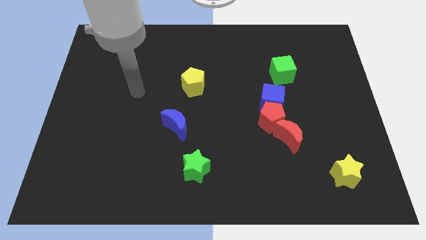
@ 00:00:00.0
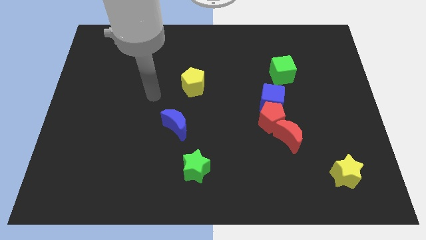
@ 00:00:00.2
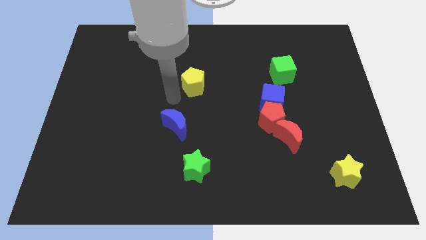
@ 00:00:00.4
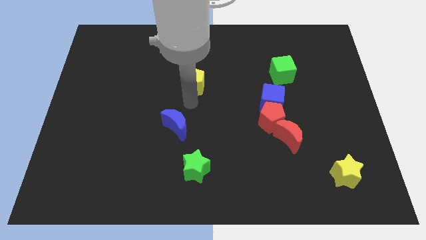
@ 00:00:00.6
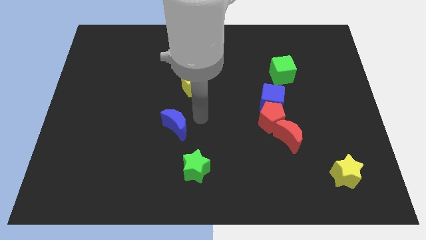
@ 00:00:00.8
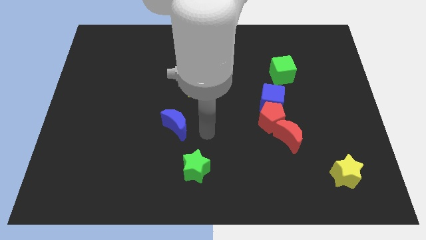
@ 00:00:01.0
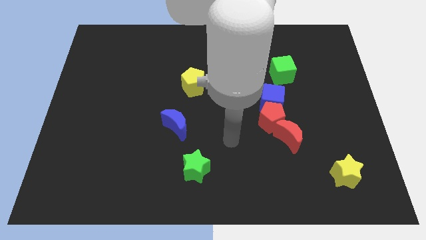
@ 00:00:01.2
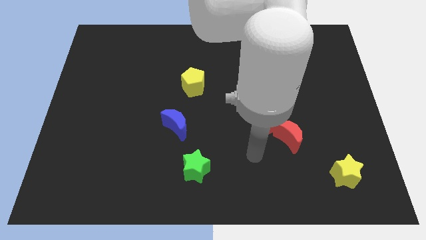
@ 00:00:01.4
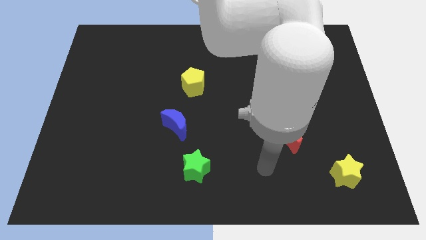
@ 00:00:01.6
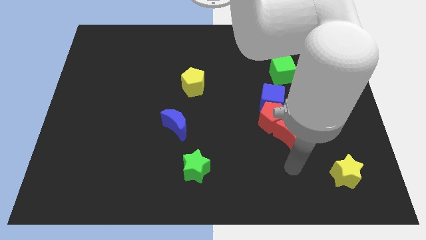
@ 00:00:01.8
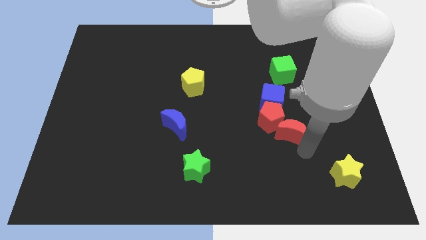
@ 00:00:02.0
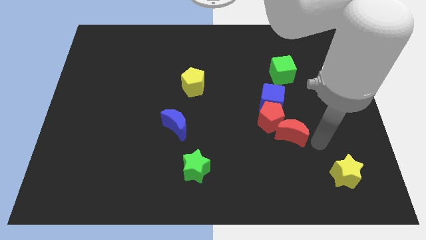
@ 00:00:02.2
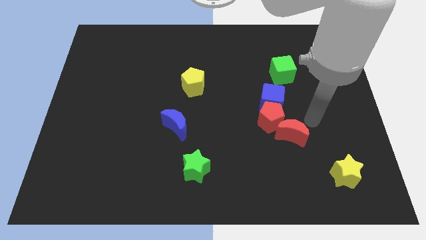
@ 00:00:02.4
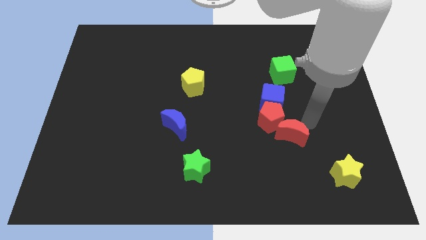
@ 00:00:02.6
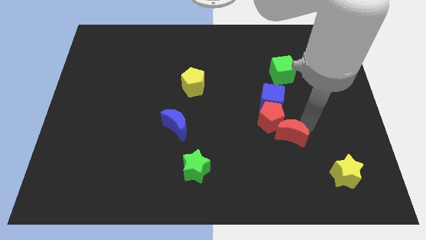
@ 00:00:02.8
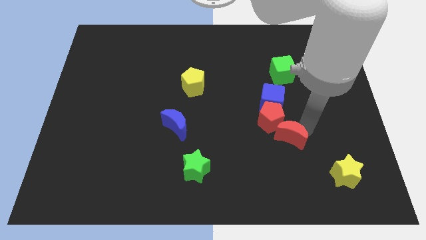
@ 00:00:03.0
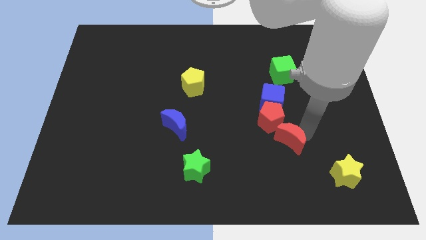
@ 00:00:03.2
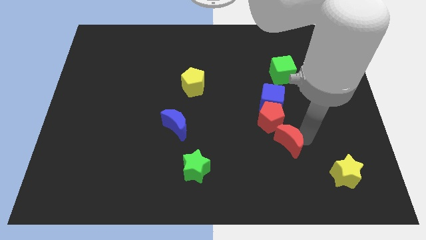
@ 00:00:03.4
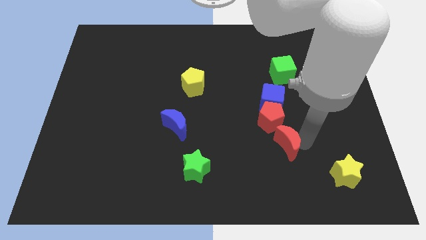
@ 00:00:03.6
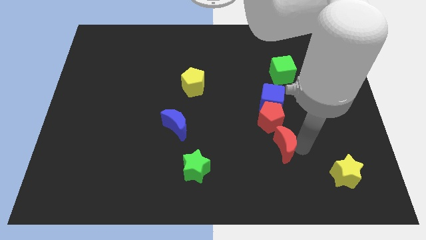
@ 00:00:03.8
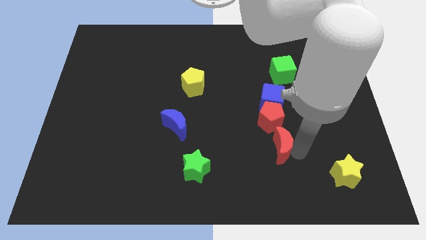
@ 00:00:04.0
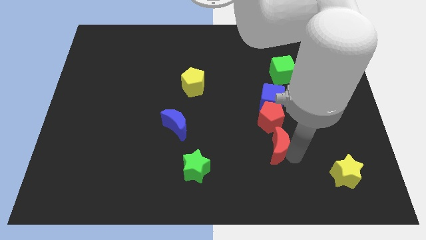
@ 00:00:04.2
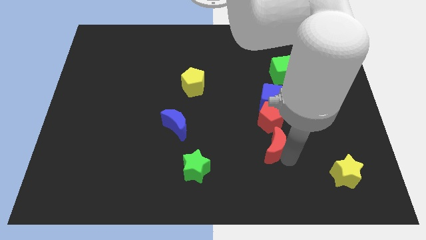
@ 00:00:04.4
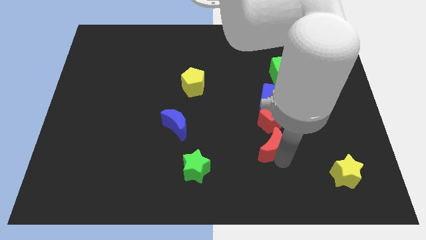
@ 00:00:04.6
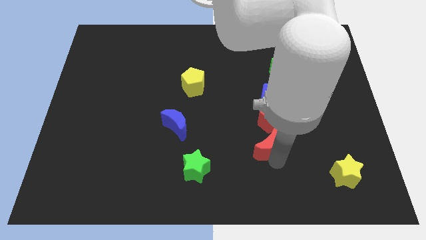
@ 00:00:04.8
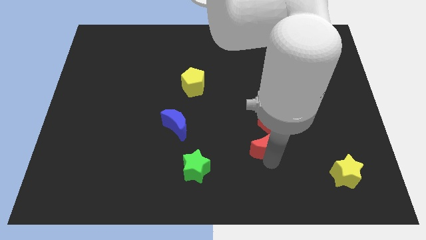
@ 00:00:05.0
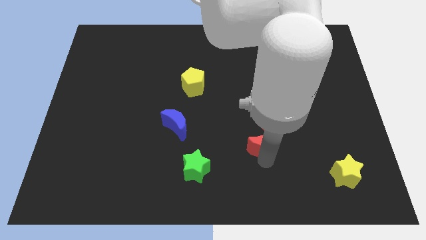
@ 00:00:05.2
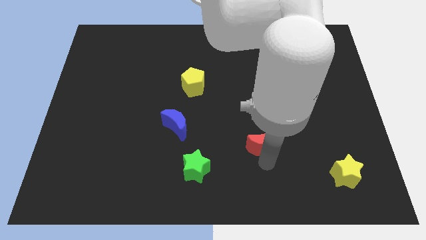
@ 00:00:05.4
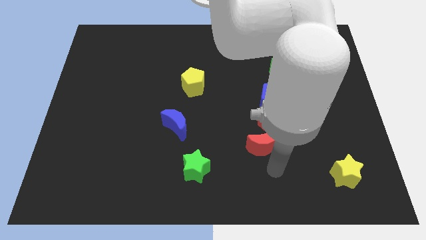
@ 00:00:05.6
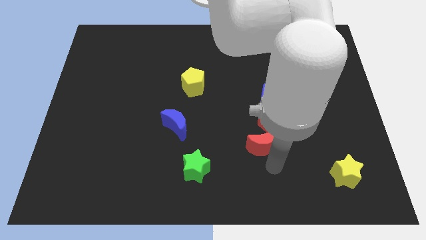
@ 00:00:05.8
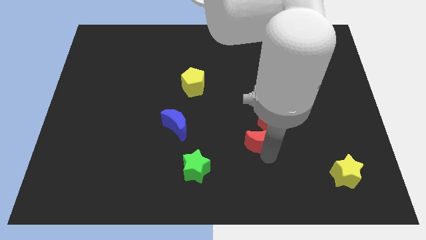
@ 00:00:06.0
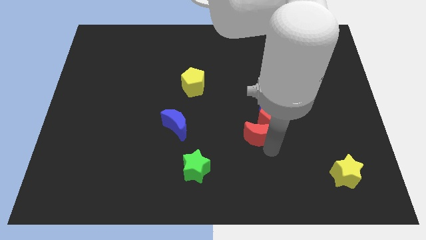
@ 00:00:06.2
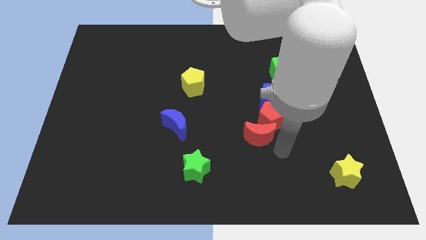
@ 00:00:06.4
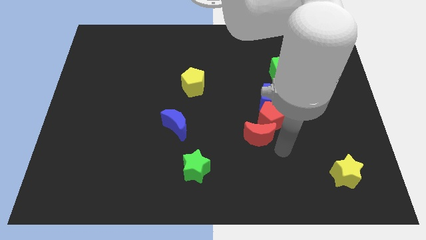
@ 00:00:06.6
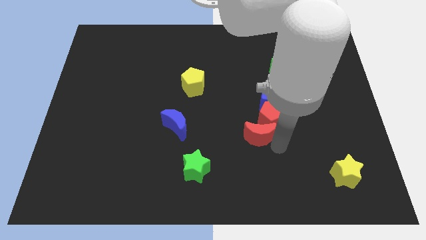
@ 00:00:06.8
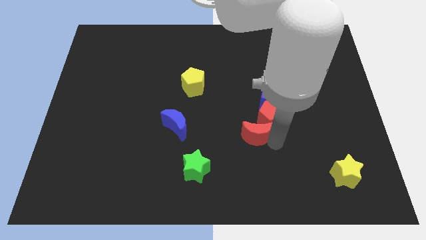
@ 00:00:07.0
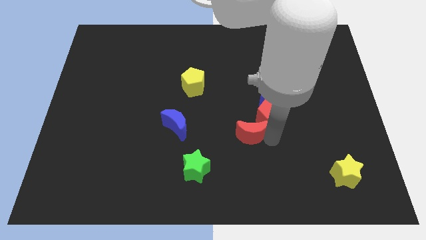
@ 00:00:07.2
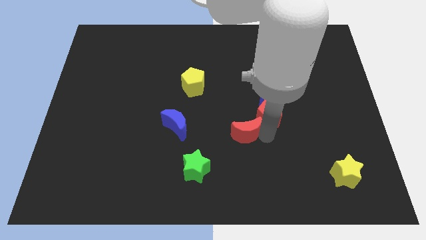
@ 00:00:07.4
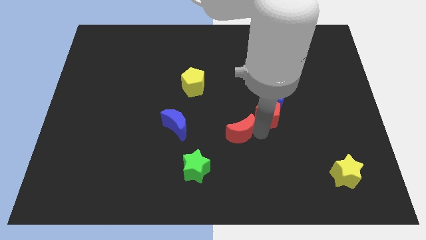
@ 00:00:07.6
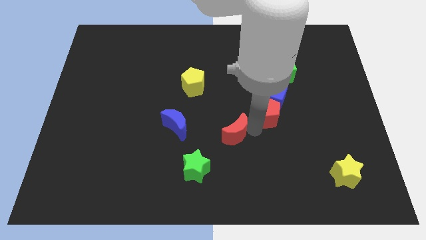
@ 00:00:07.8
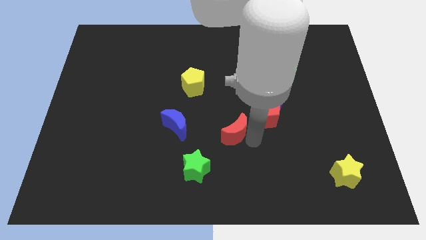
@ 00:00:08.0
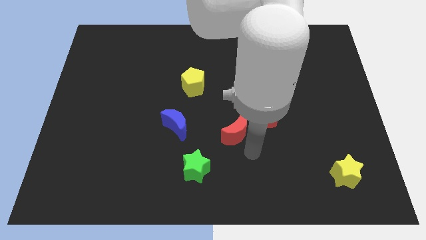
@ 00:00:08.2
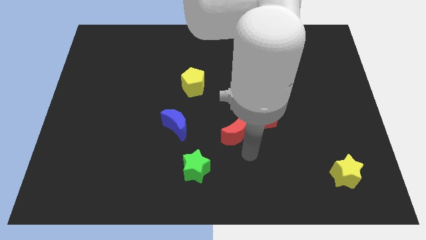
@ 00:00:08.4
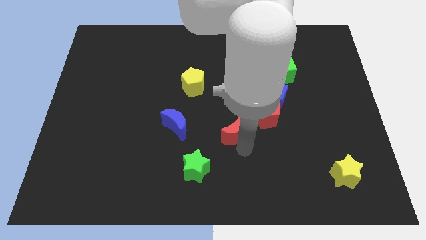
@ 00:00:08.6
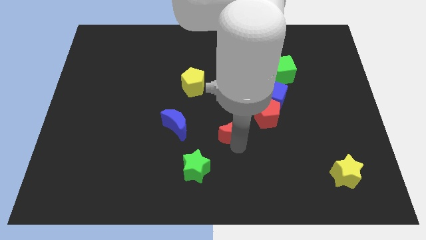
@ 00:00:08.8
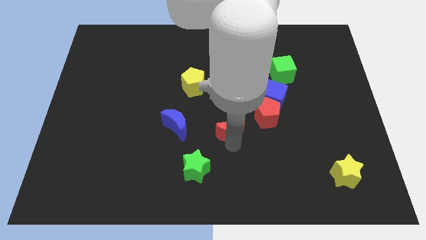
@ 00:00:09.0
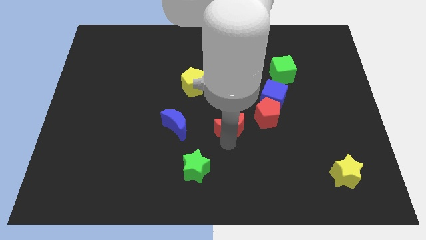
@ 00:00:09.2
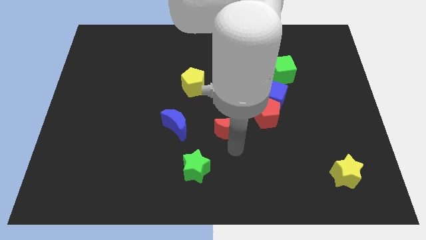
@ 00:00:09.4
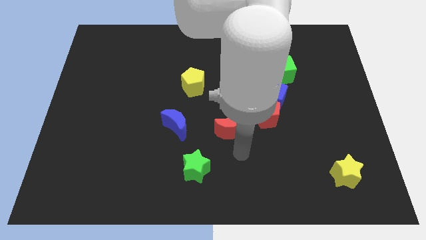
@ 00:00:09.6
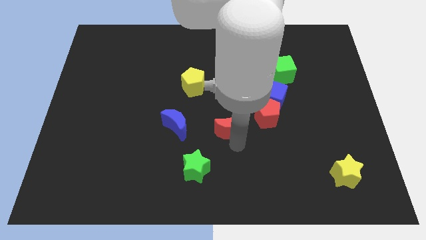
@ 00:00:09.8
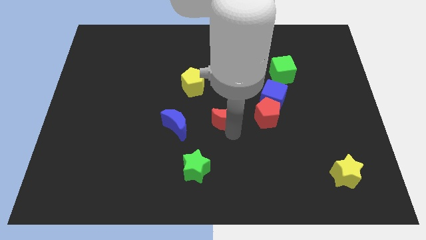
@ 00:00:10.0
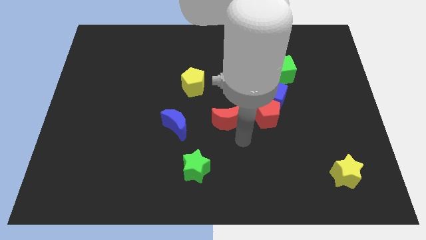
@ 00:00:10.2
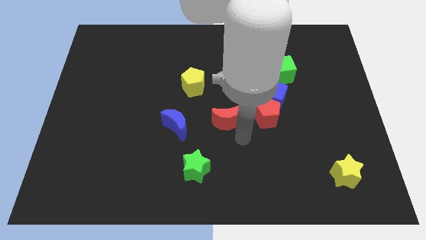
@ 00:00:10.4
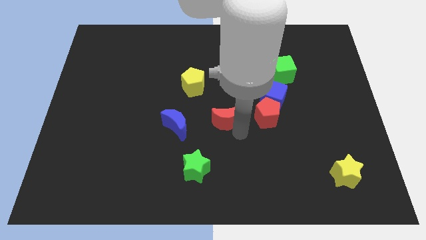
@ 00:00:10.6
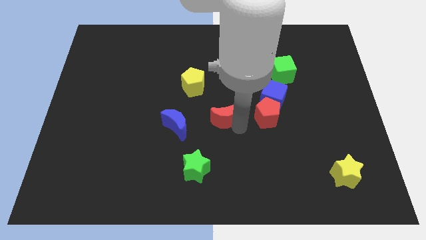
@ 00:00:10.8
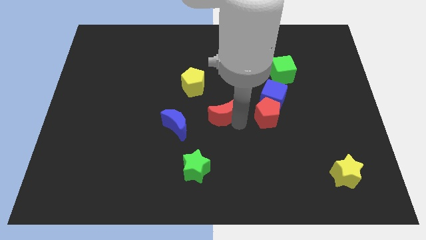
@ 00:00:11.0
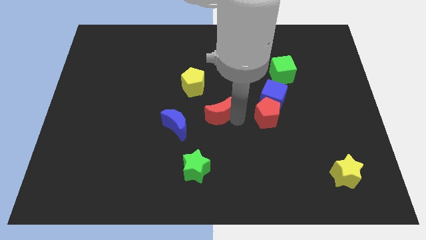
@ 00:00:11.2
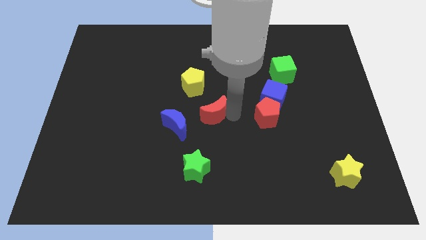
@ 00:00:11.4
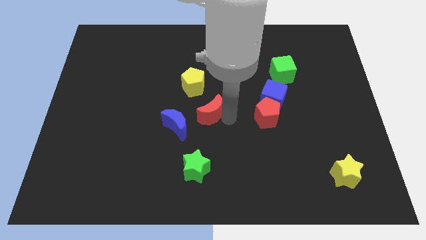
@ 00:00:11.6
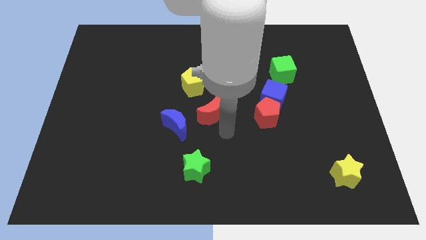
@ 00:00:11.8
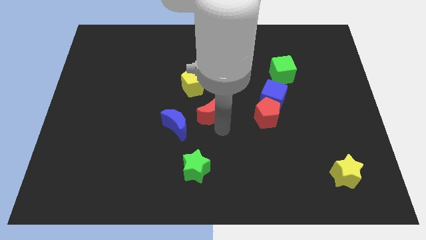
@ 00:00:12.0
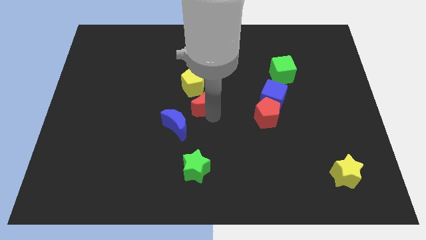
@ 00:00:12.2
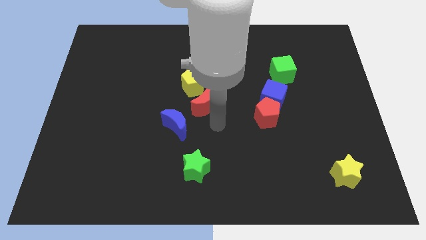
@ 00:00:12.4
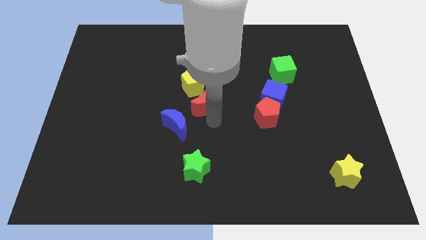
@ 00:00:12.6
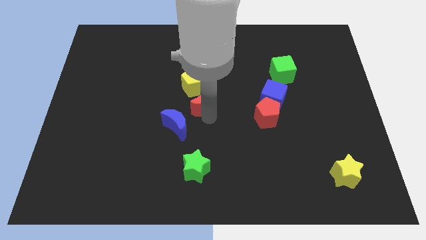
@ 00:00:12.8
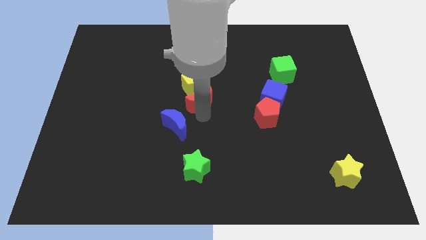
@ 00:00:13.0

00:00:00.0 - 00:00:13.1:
slide the red moon close to the yellow pentagon

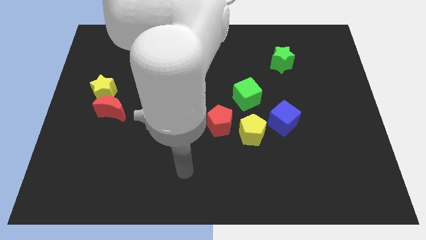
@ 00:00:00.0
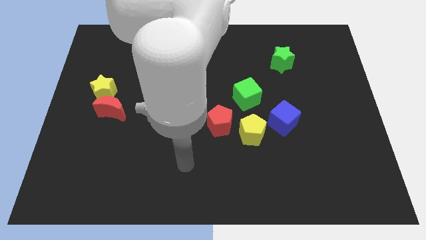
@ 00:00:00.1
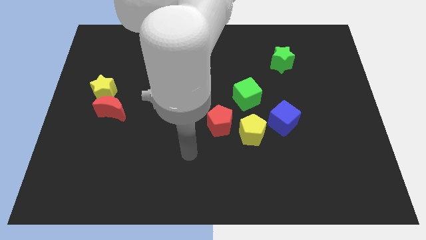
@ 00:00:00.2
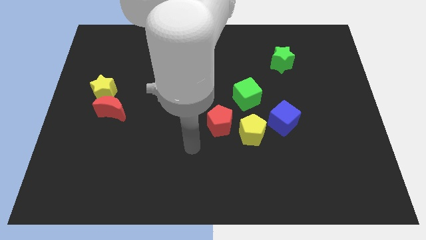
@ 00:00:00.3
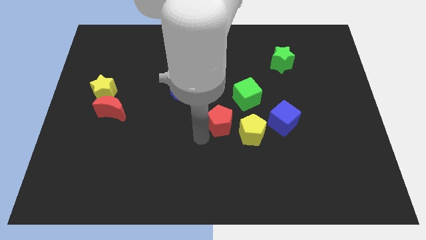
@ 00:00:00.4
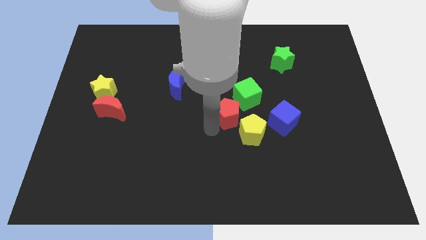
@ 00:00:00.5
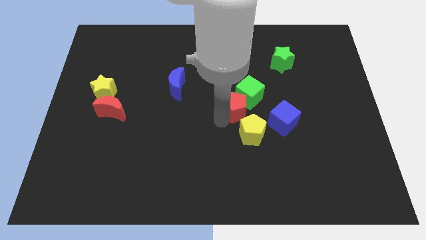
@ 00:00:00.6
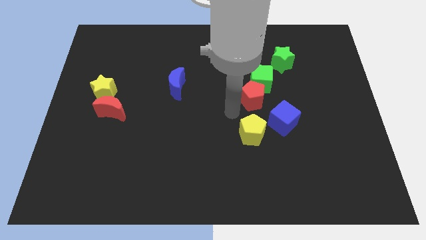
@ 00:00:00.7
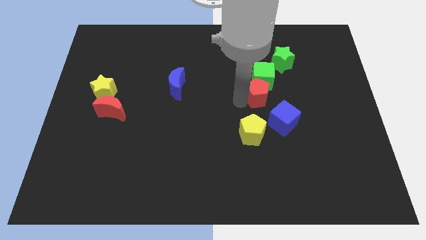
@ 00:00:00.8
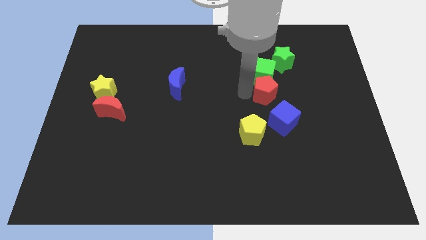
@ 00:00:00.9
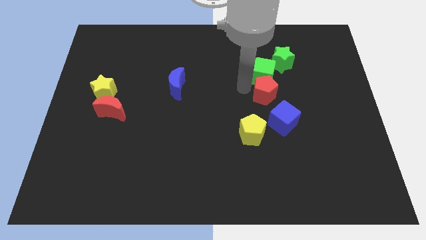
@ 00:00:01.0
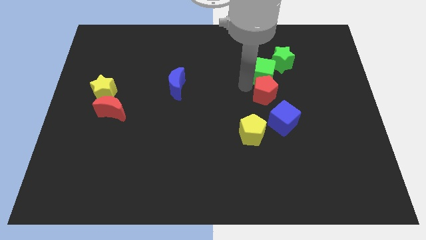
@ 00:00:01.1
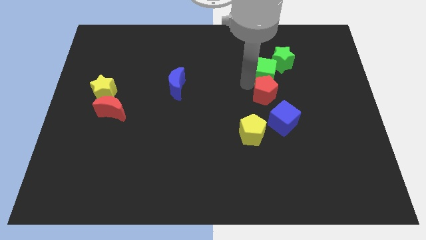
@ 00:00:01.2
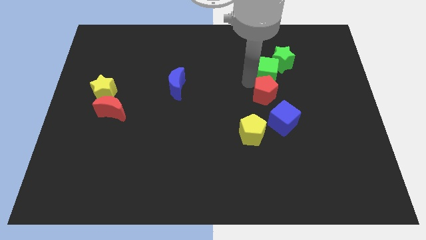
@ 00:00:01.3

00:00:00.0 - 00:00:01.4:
push the green cube close to the green star
